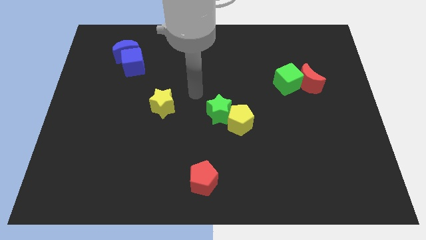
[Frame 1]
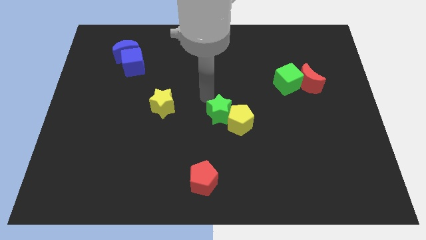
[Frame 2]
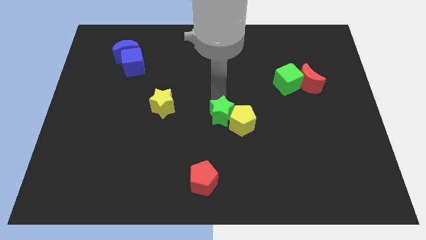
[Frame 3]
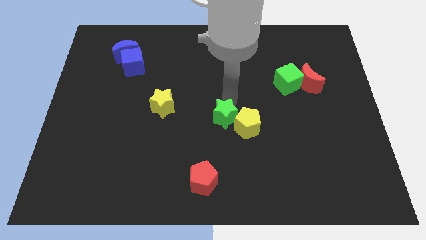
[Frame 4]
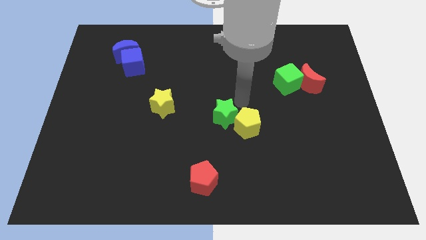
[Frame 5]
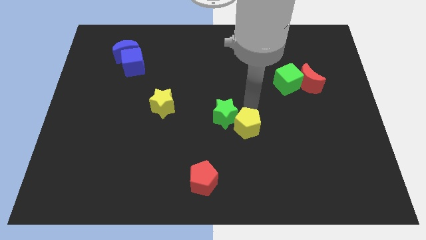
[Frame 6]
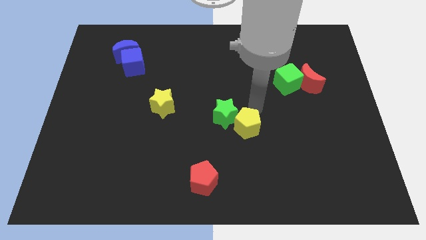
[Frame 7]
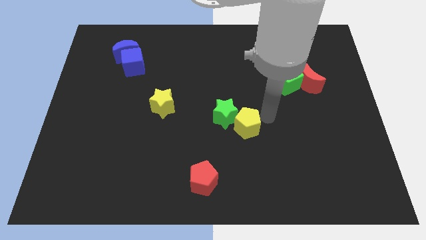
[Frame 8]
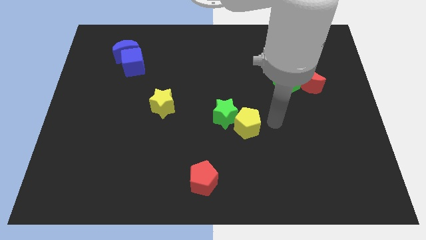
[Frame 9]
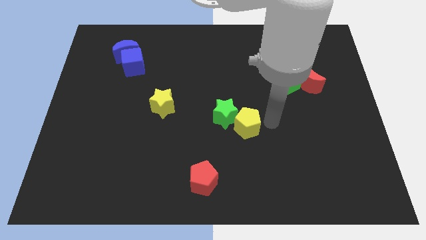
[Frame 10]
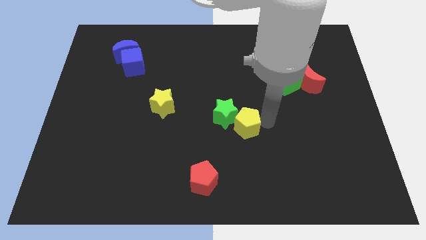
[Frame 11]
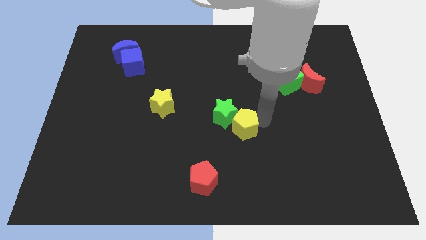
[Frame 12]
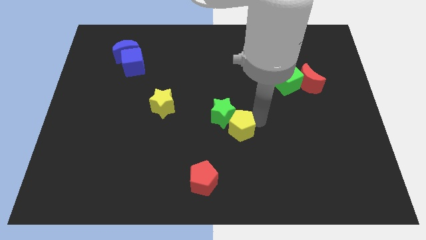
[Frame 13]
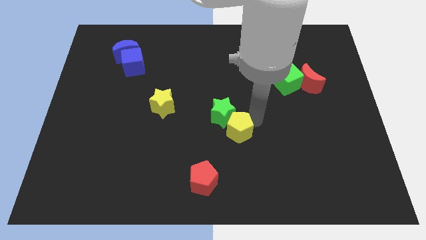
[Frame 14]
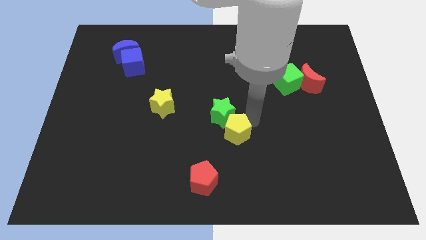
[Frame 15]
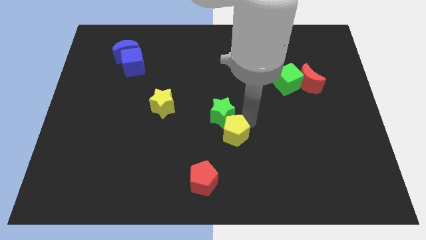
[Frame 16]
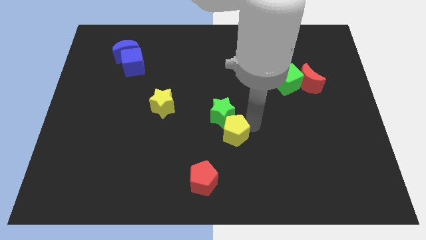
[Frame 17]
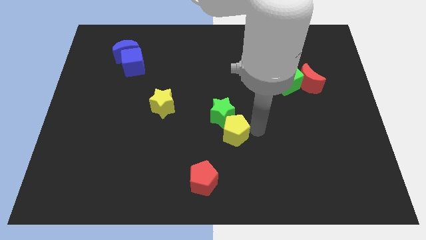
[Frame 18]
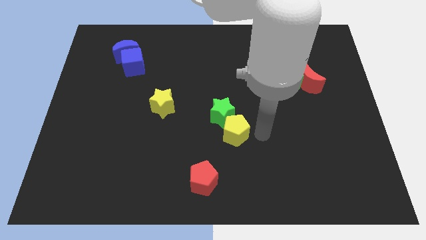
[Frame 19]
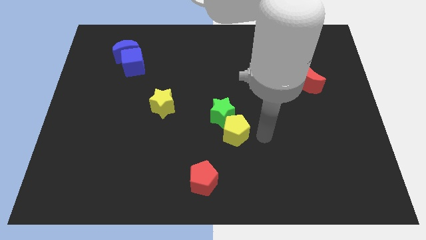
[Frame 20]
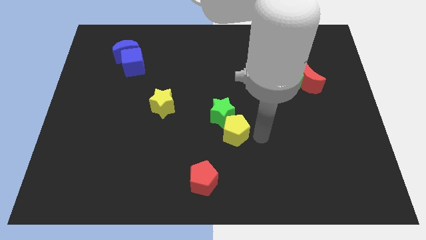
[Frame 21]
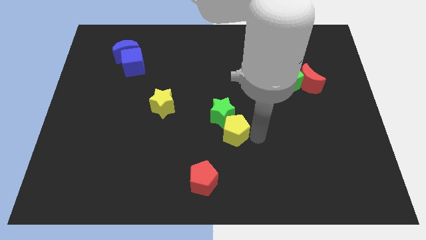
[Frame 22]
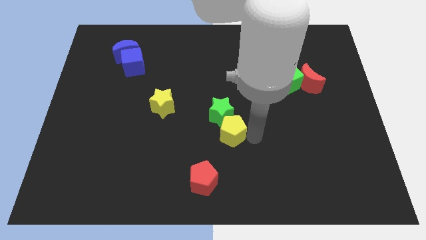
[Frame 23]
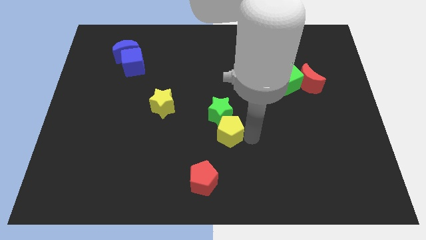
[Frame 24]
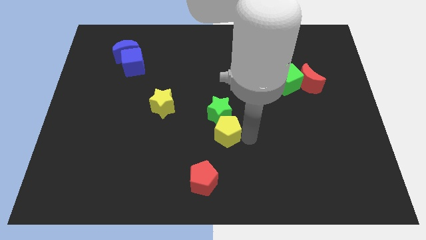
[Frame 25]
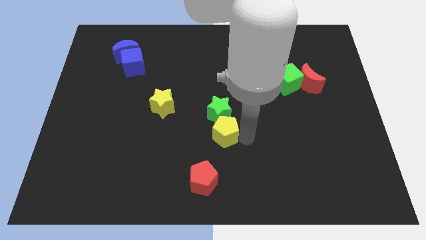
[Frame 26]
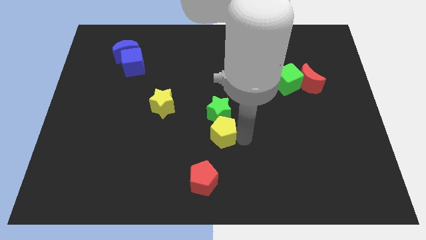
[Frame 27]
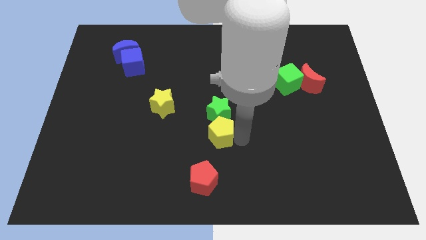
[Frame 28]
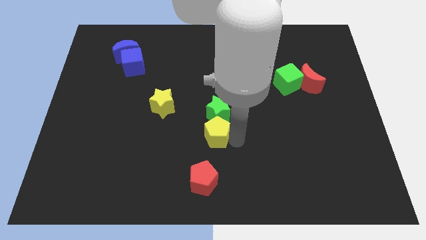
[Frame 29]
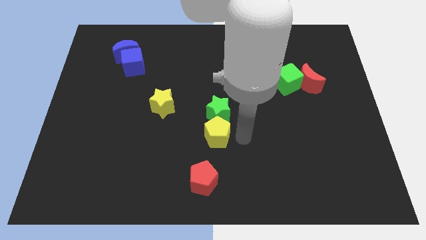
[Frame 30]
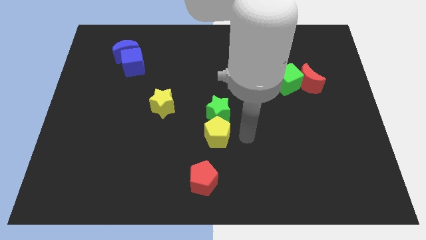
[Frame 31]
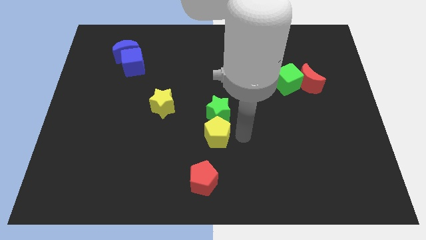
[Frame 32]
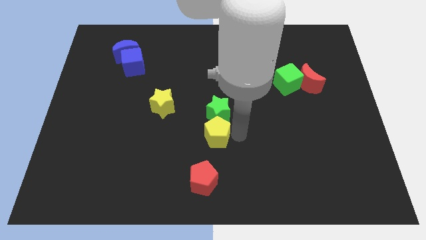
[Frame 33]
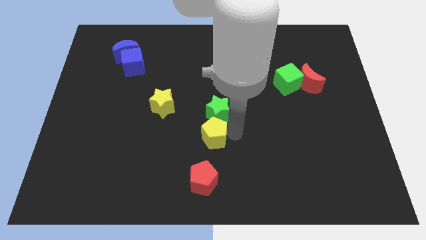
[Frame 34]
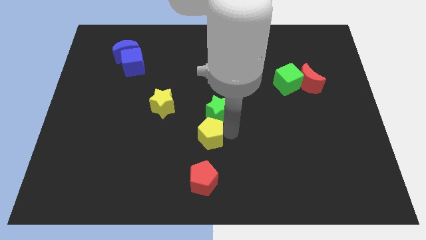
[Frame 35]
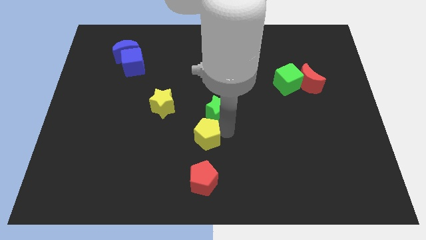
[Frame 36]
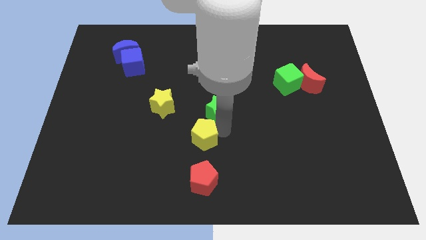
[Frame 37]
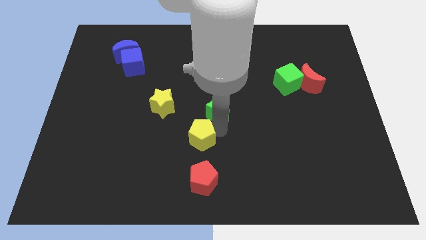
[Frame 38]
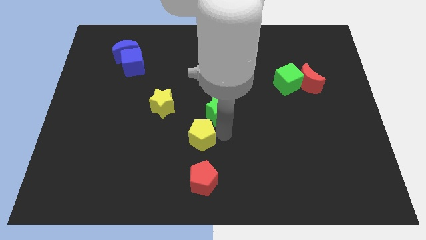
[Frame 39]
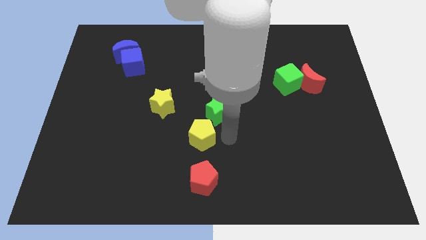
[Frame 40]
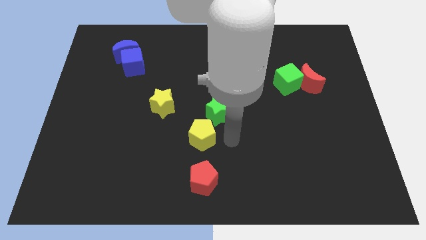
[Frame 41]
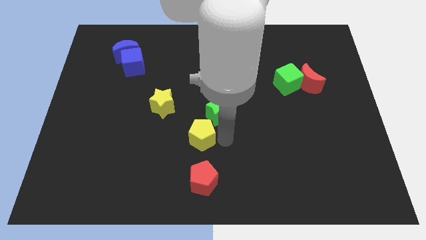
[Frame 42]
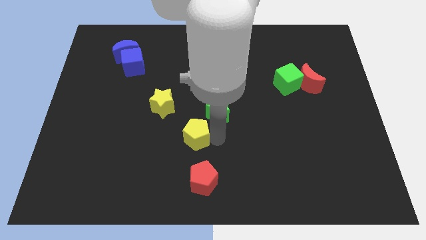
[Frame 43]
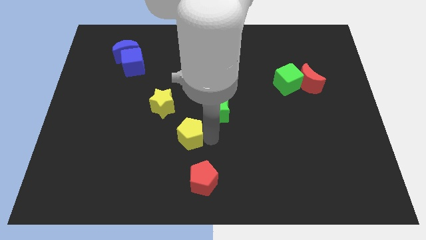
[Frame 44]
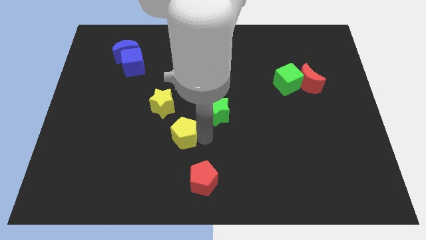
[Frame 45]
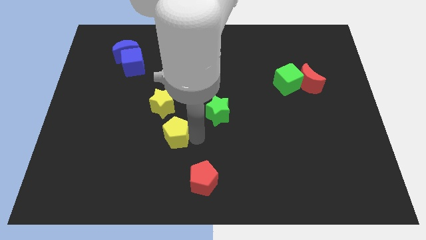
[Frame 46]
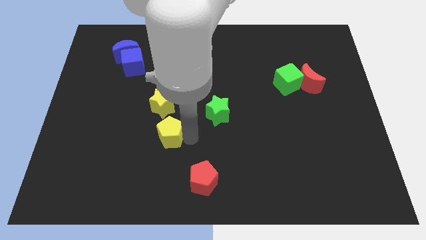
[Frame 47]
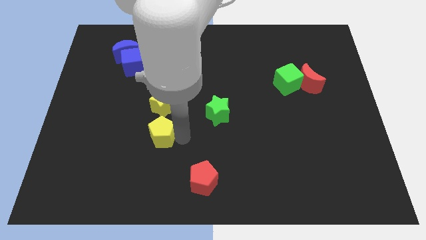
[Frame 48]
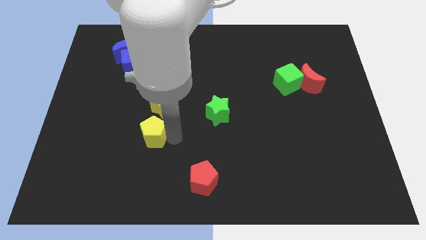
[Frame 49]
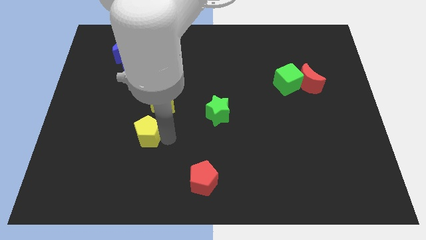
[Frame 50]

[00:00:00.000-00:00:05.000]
push the yellow pentagon left

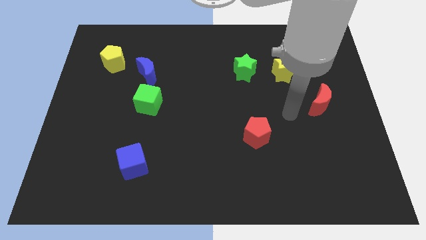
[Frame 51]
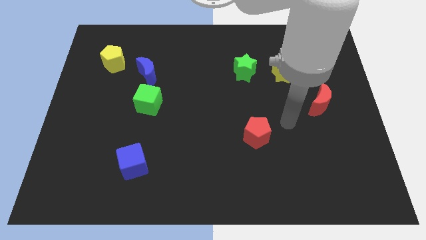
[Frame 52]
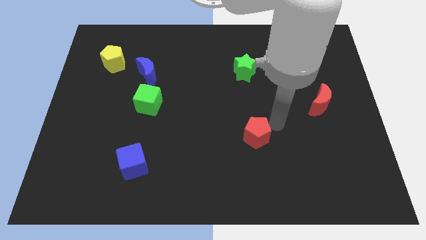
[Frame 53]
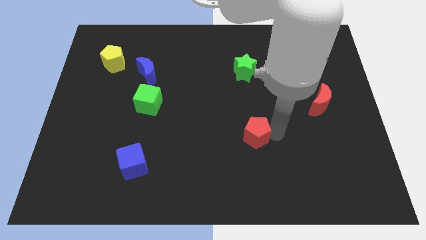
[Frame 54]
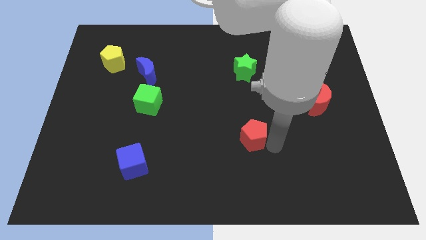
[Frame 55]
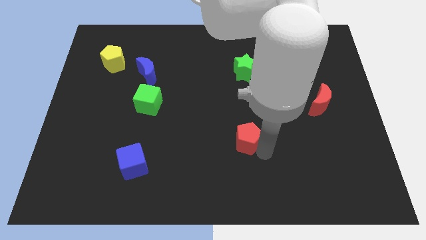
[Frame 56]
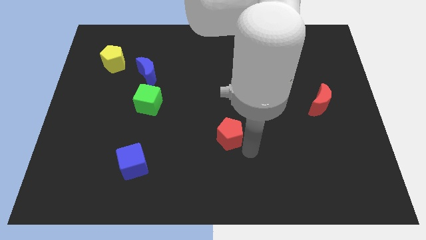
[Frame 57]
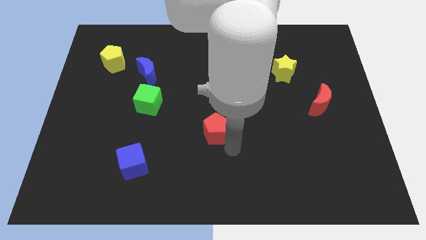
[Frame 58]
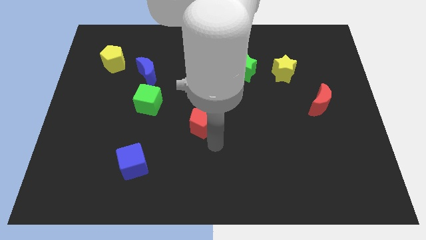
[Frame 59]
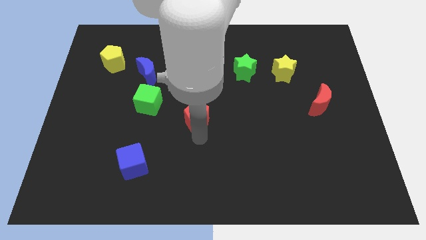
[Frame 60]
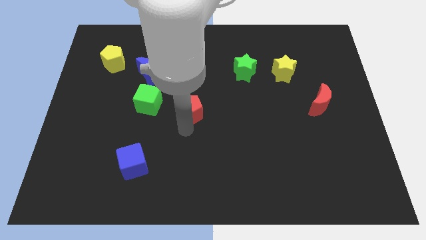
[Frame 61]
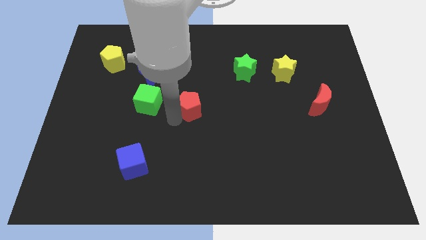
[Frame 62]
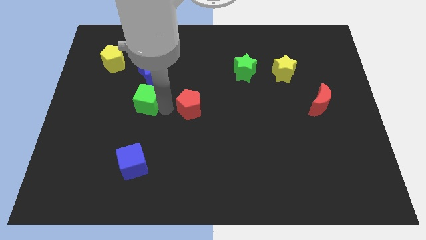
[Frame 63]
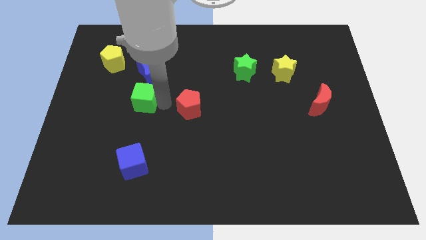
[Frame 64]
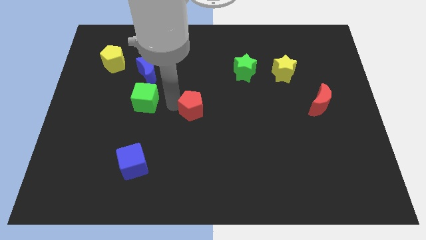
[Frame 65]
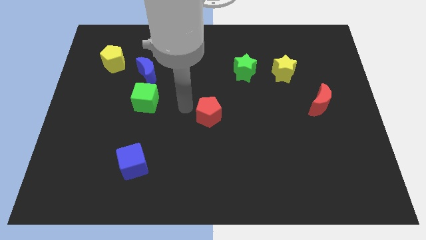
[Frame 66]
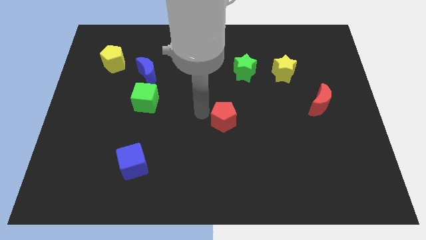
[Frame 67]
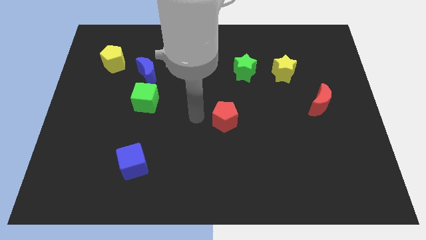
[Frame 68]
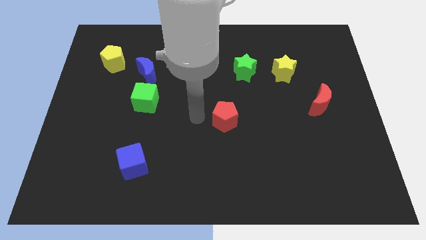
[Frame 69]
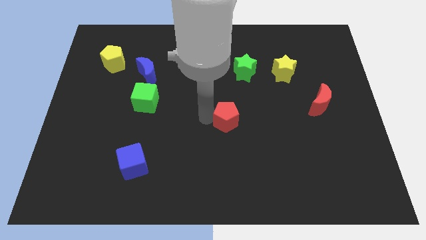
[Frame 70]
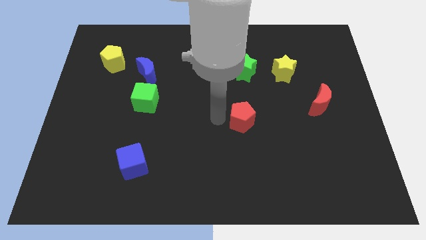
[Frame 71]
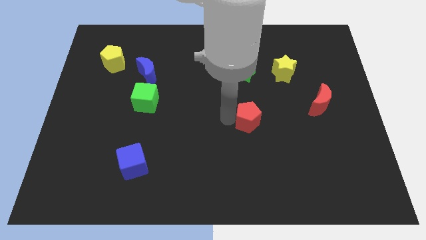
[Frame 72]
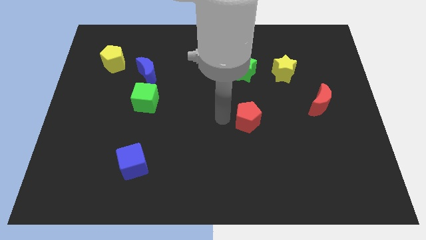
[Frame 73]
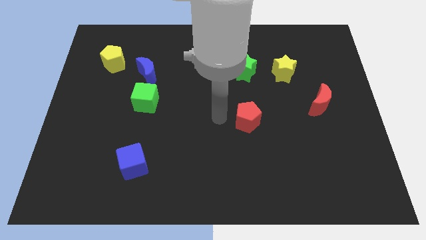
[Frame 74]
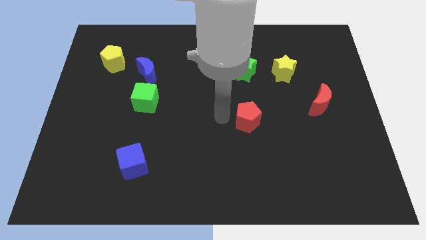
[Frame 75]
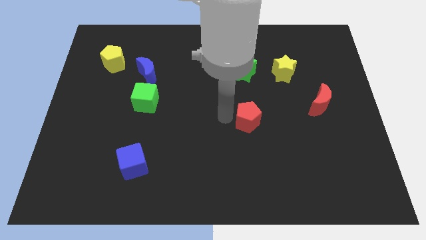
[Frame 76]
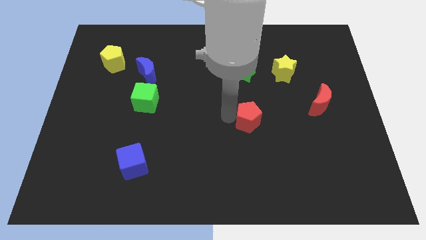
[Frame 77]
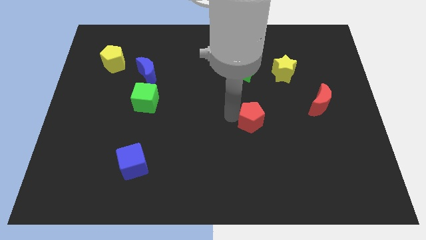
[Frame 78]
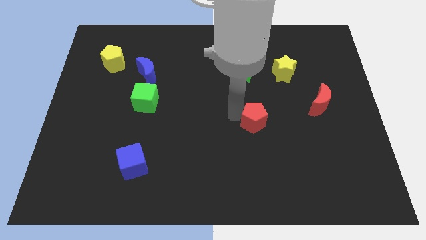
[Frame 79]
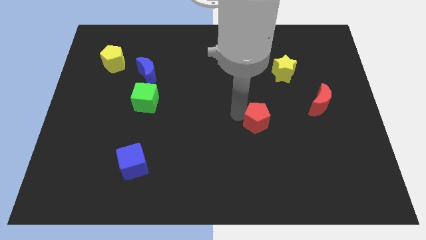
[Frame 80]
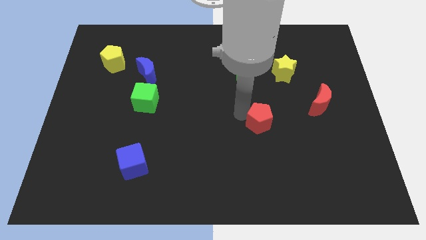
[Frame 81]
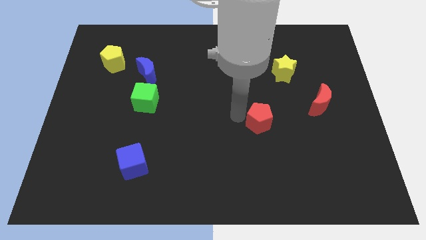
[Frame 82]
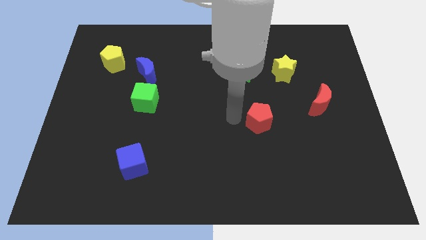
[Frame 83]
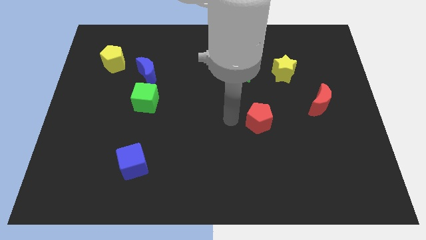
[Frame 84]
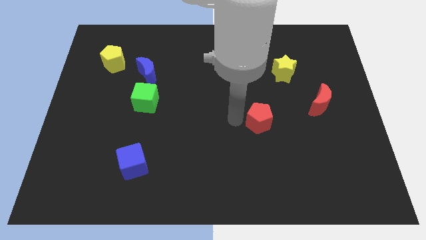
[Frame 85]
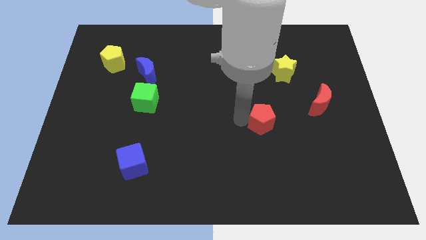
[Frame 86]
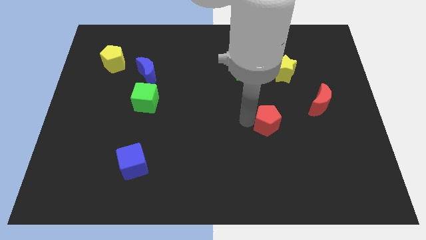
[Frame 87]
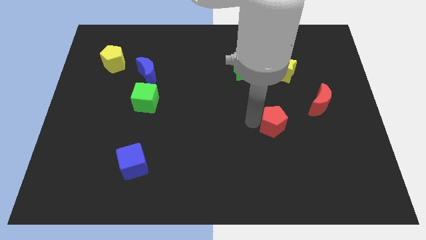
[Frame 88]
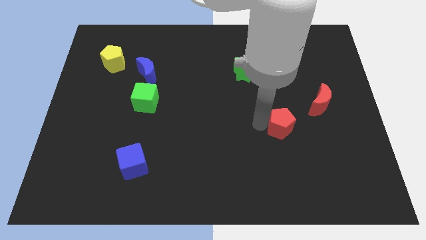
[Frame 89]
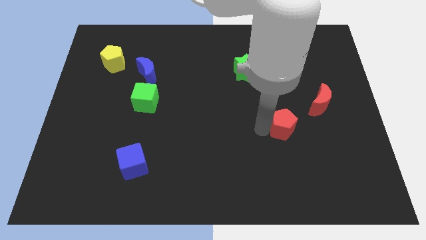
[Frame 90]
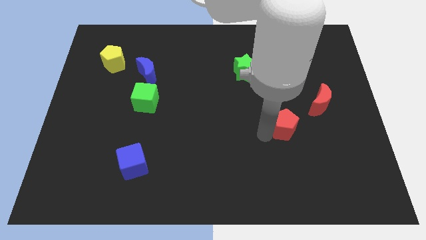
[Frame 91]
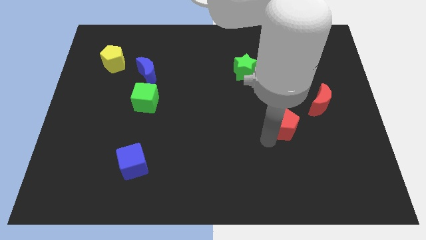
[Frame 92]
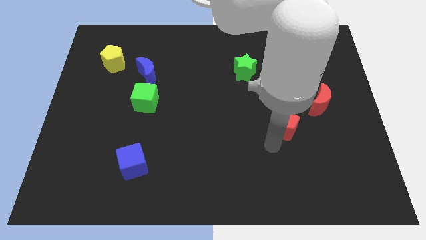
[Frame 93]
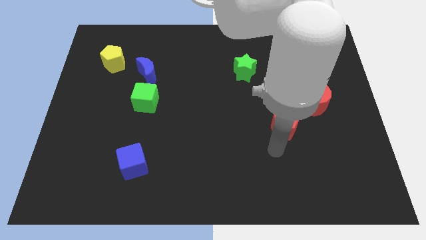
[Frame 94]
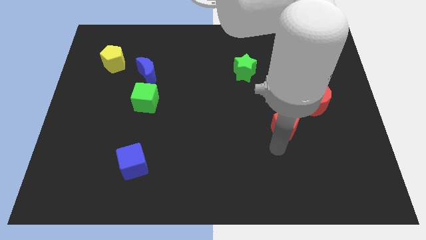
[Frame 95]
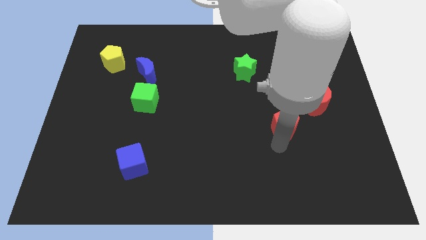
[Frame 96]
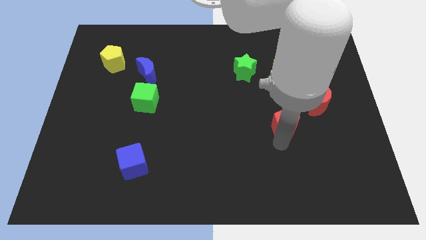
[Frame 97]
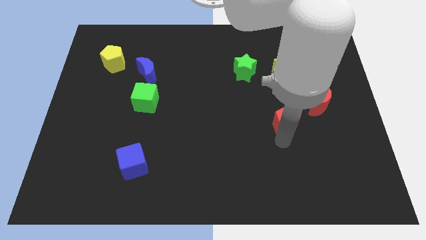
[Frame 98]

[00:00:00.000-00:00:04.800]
push the red pentagon upwards and to the right diagonally a little
